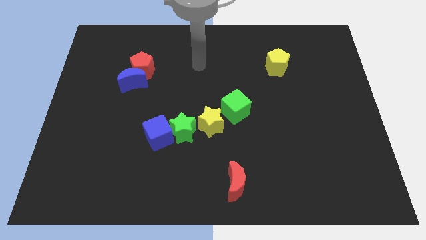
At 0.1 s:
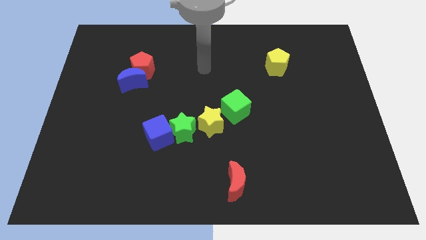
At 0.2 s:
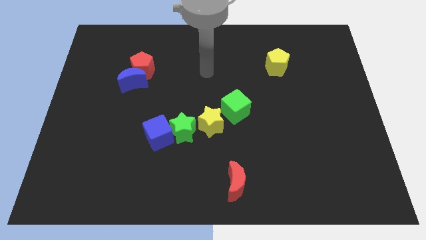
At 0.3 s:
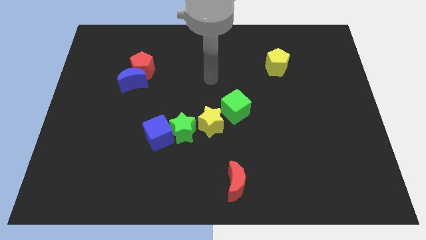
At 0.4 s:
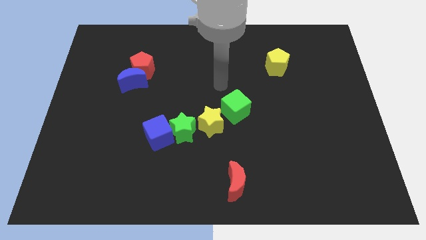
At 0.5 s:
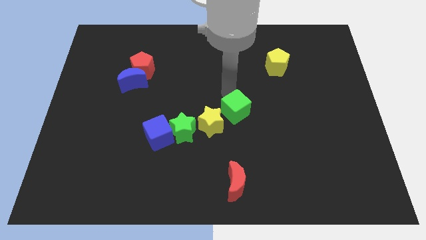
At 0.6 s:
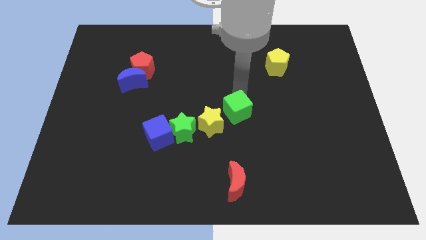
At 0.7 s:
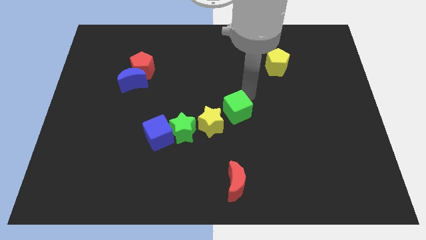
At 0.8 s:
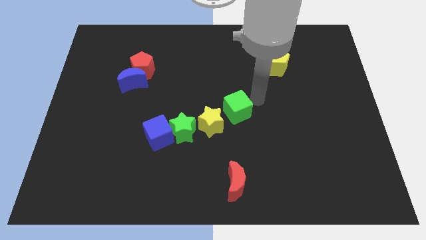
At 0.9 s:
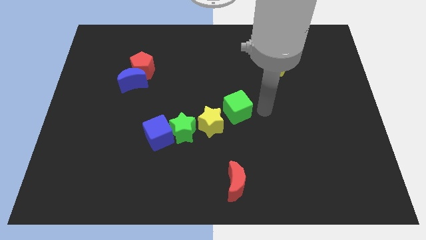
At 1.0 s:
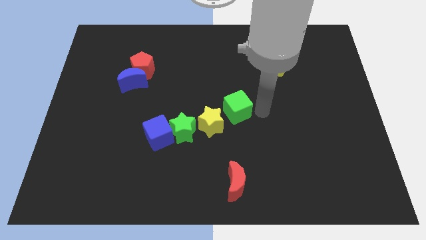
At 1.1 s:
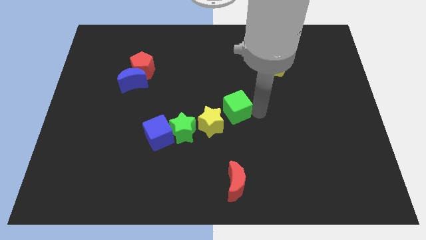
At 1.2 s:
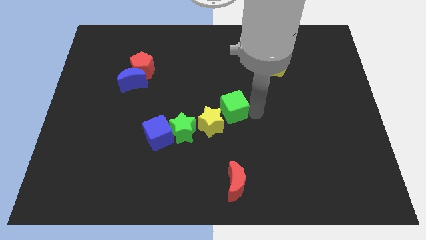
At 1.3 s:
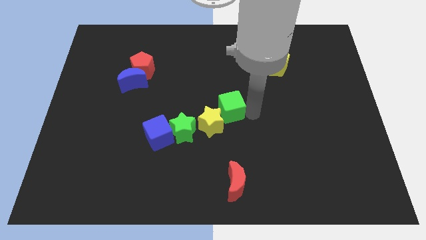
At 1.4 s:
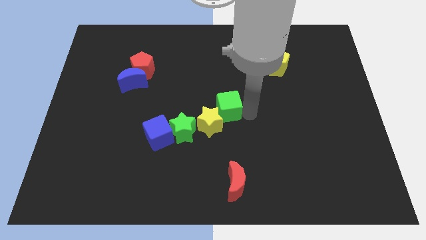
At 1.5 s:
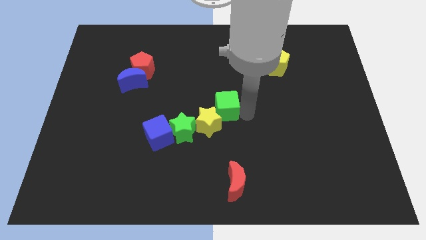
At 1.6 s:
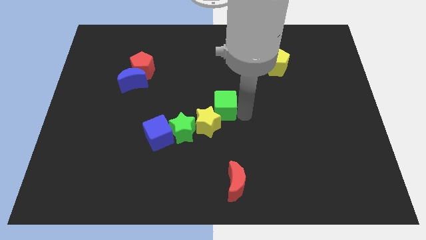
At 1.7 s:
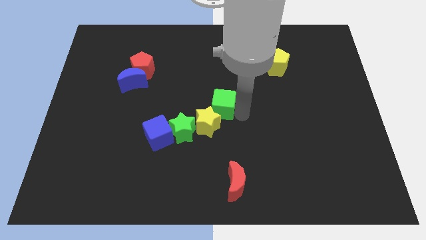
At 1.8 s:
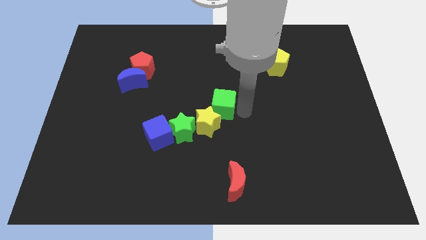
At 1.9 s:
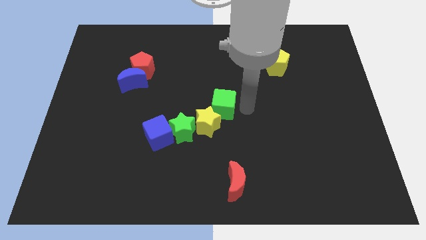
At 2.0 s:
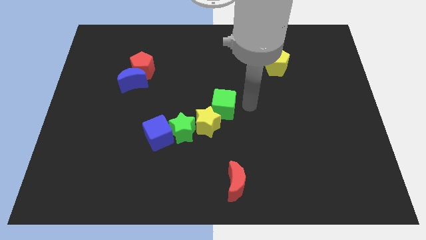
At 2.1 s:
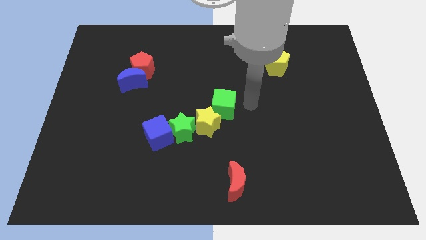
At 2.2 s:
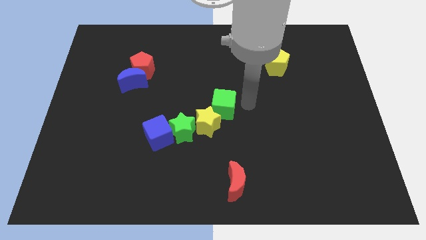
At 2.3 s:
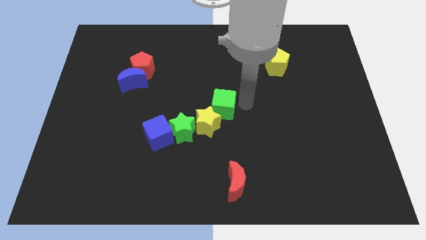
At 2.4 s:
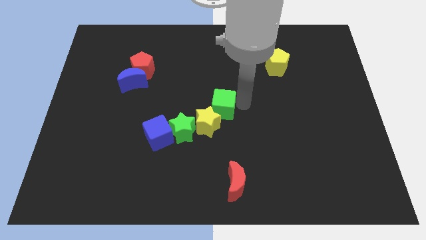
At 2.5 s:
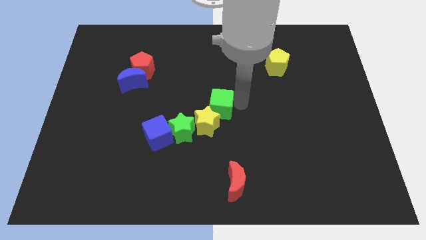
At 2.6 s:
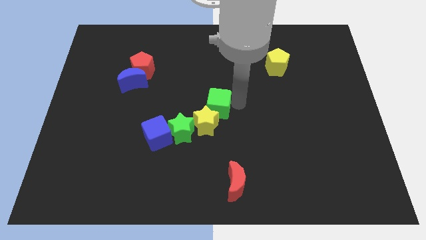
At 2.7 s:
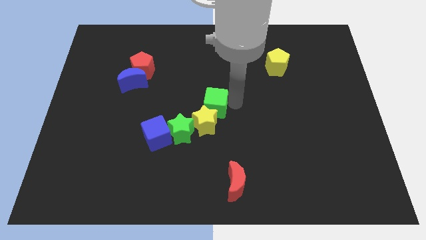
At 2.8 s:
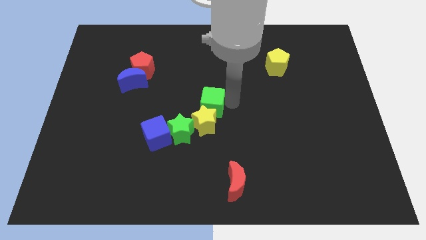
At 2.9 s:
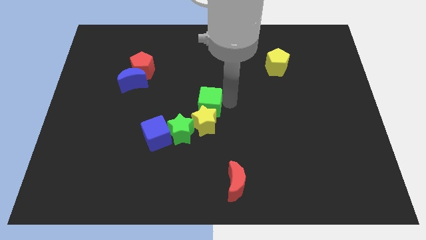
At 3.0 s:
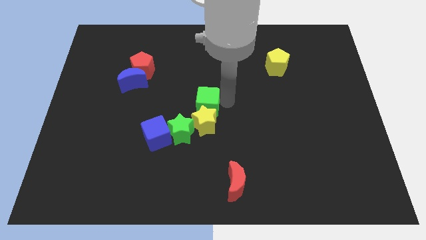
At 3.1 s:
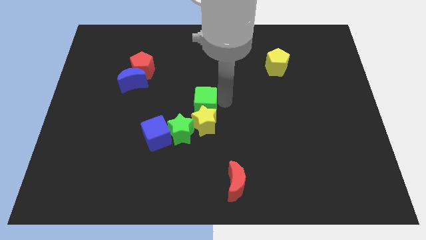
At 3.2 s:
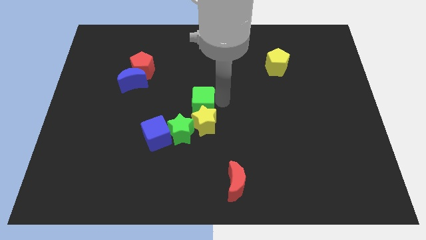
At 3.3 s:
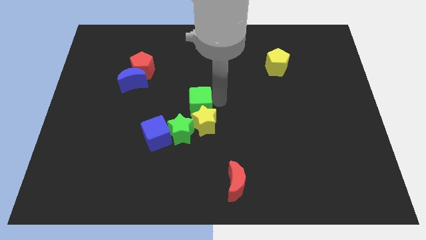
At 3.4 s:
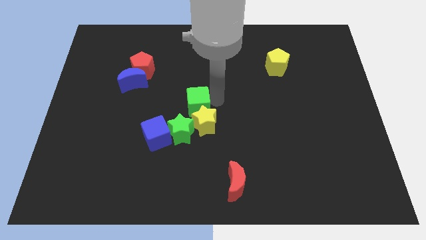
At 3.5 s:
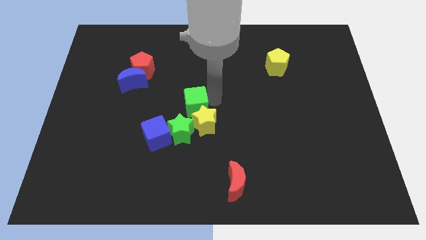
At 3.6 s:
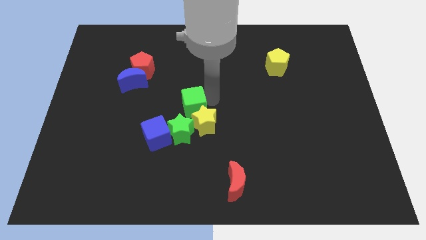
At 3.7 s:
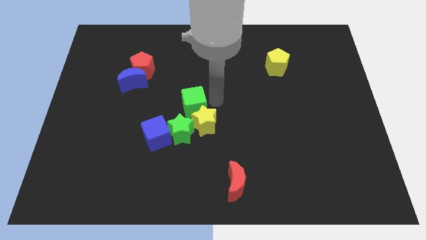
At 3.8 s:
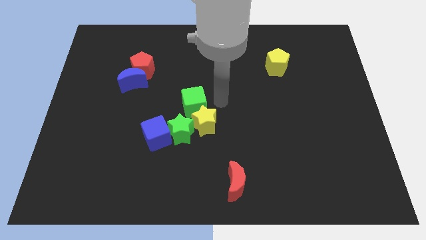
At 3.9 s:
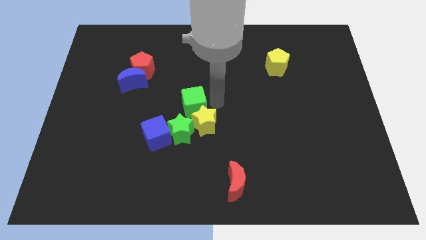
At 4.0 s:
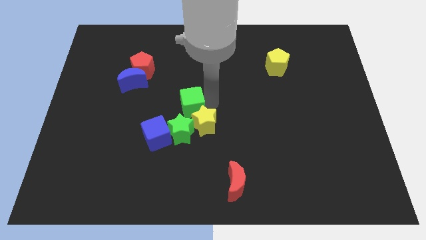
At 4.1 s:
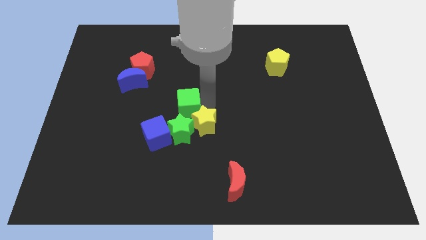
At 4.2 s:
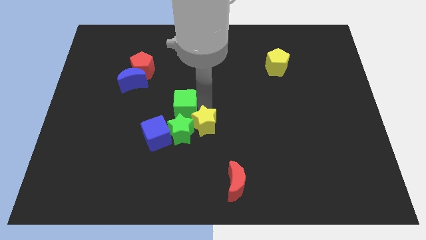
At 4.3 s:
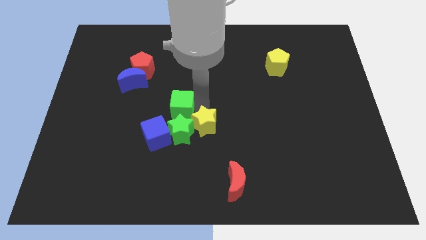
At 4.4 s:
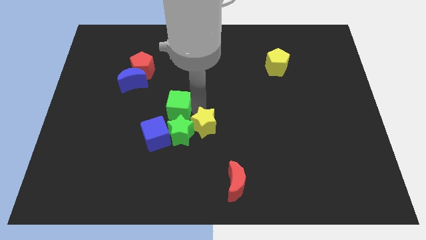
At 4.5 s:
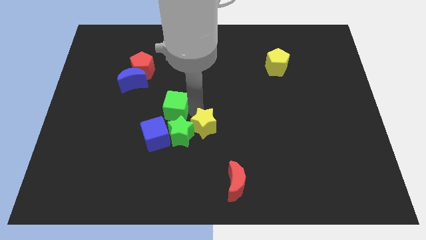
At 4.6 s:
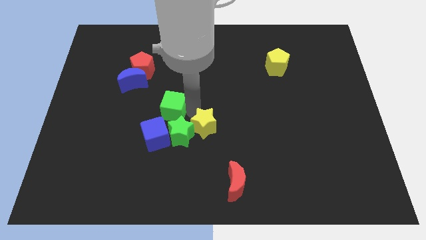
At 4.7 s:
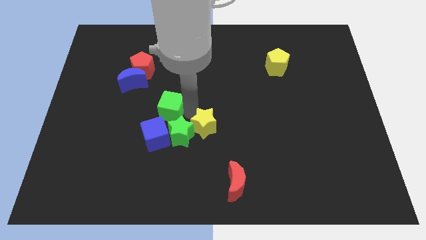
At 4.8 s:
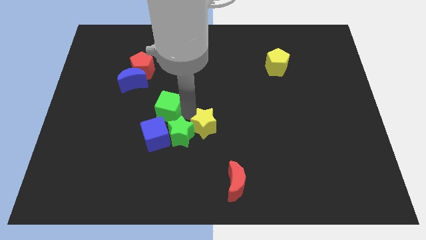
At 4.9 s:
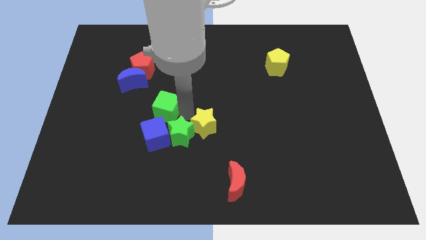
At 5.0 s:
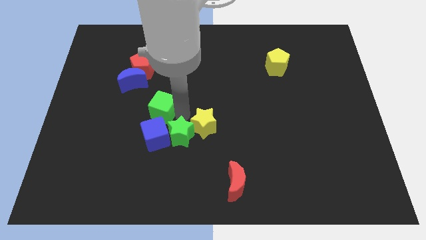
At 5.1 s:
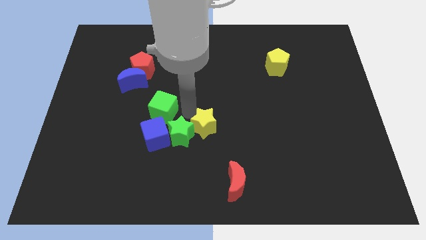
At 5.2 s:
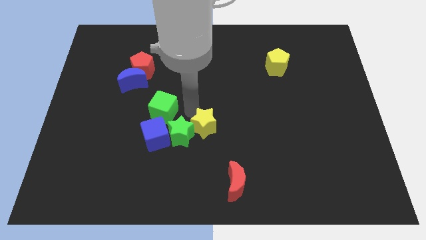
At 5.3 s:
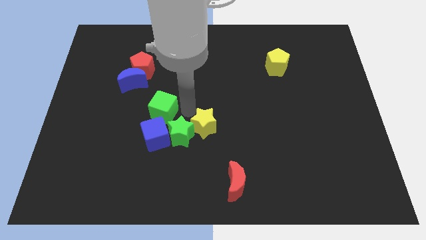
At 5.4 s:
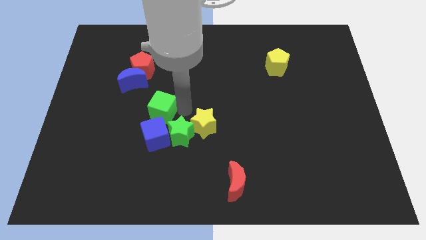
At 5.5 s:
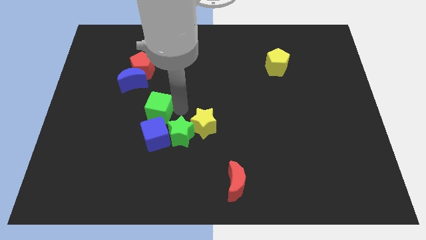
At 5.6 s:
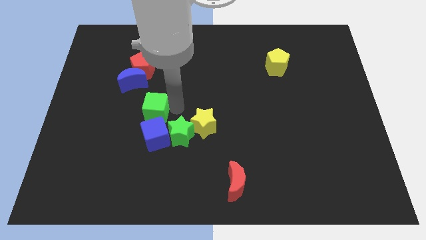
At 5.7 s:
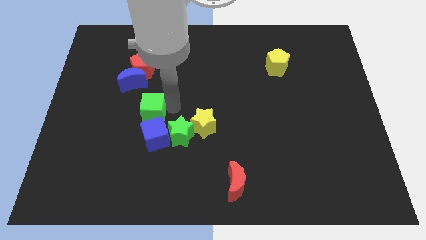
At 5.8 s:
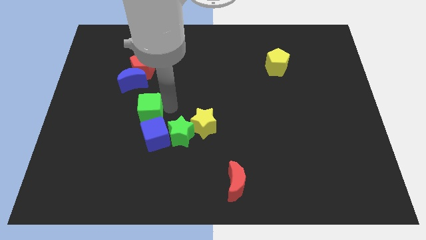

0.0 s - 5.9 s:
move the green cube to the left

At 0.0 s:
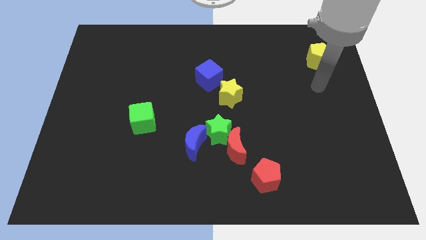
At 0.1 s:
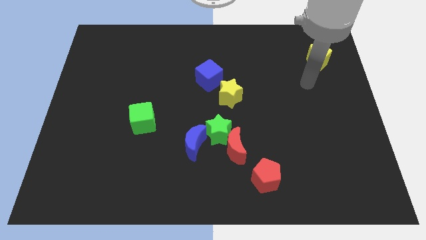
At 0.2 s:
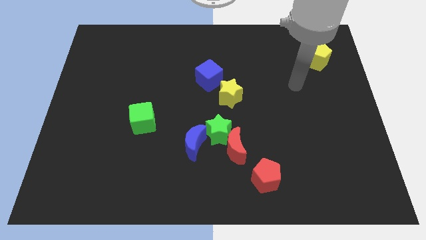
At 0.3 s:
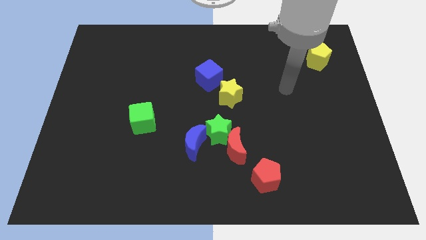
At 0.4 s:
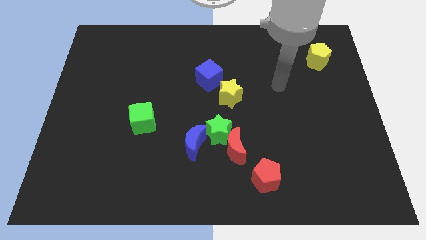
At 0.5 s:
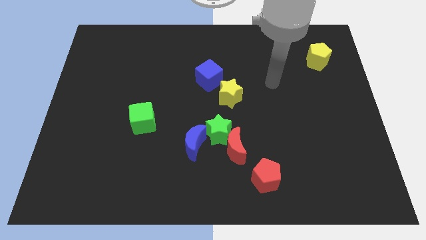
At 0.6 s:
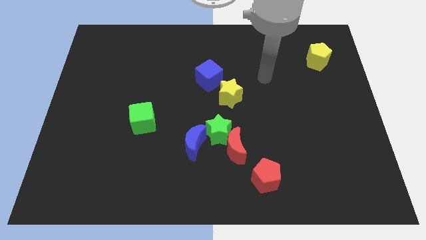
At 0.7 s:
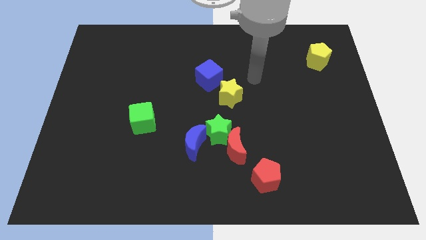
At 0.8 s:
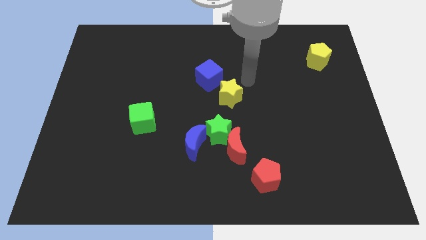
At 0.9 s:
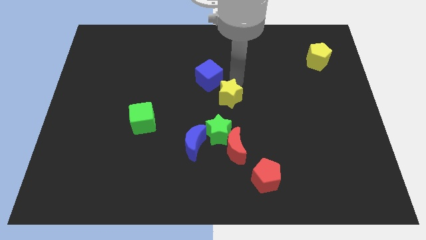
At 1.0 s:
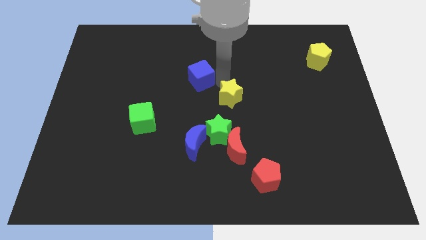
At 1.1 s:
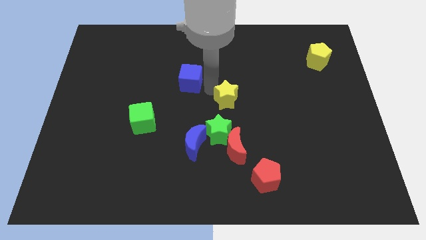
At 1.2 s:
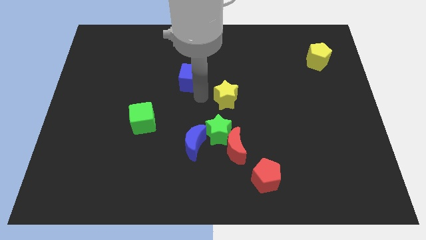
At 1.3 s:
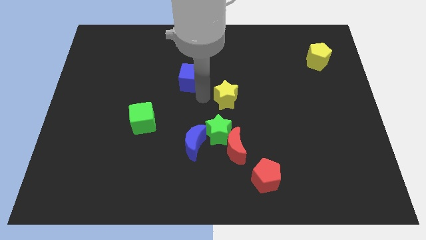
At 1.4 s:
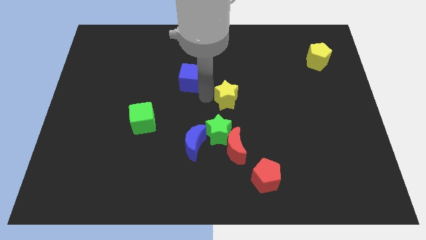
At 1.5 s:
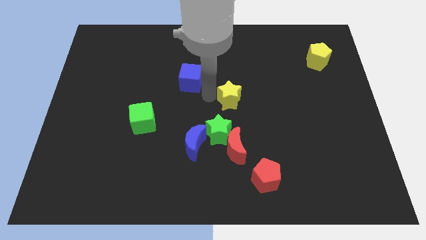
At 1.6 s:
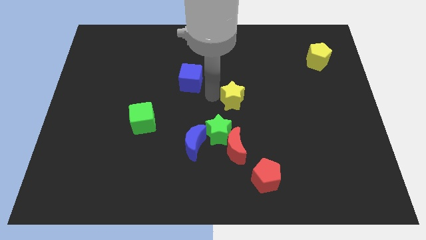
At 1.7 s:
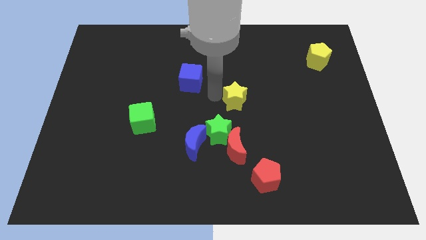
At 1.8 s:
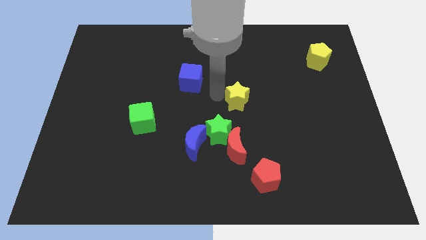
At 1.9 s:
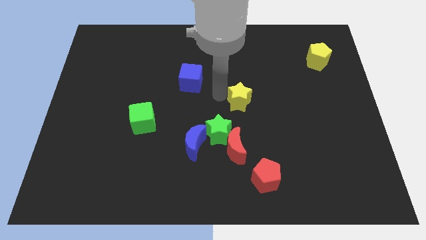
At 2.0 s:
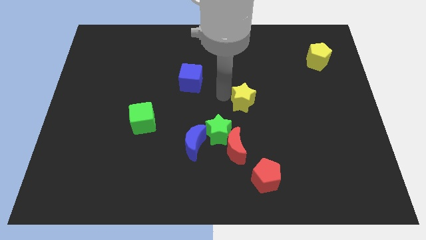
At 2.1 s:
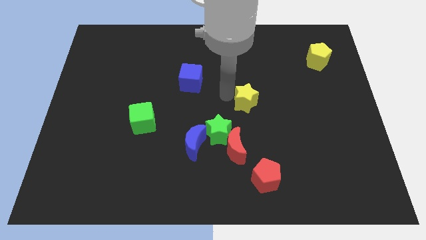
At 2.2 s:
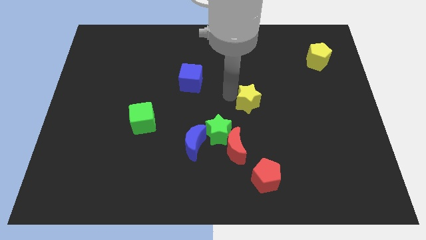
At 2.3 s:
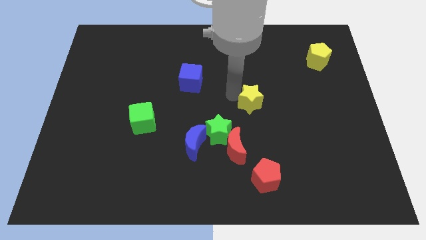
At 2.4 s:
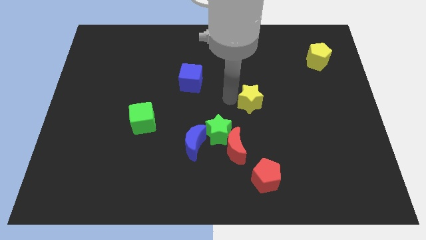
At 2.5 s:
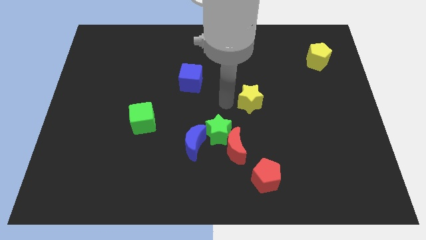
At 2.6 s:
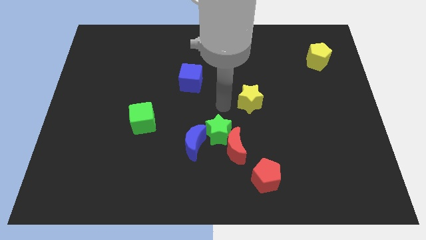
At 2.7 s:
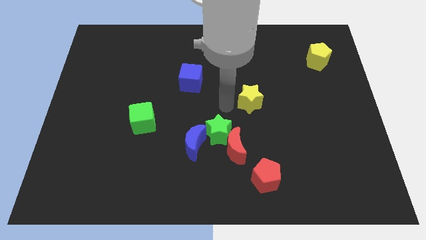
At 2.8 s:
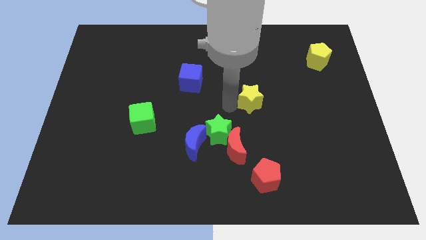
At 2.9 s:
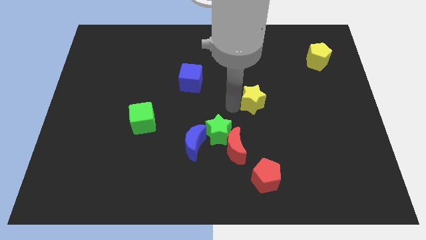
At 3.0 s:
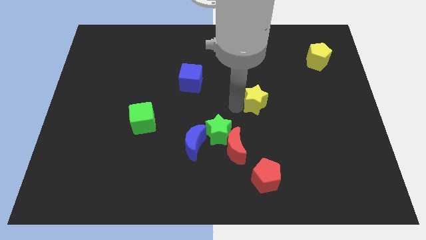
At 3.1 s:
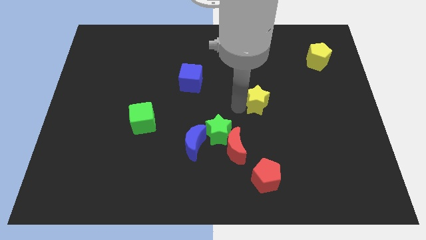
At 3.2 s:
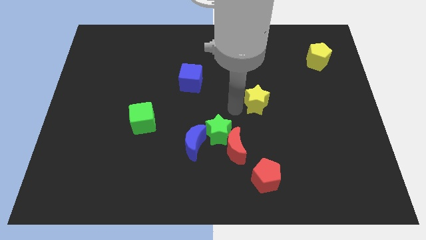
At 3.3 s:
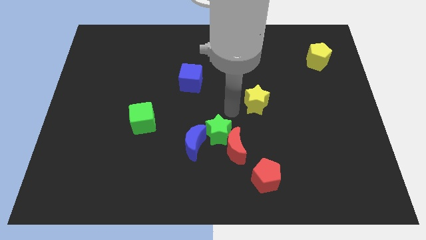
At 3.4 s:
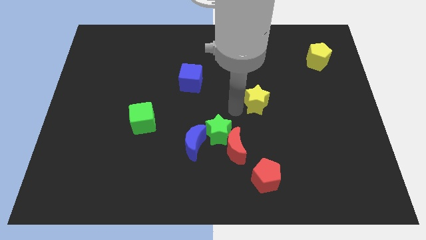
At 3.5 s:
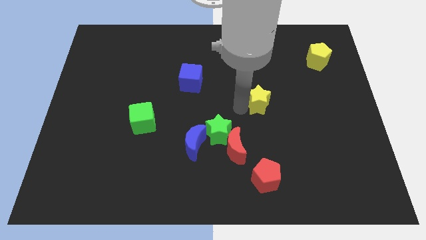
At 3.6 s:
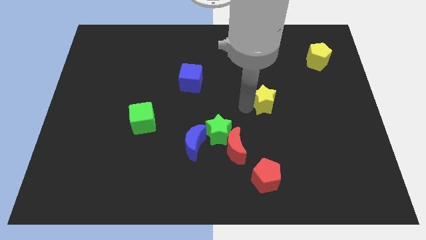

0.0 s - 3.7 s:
slightly slide the yellow star to the right
